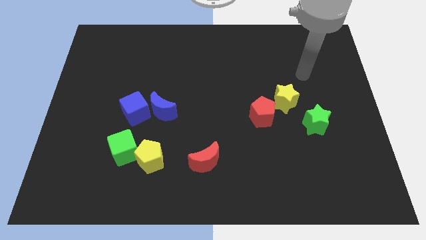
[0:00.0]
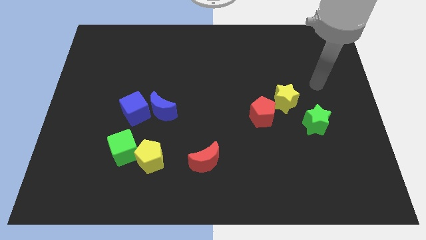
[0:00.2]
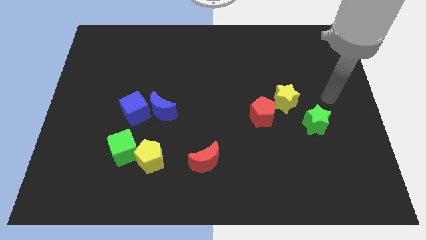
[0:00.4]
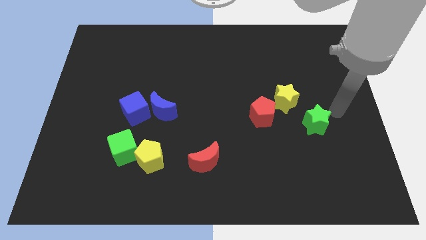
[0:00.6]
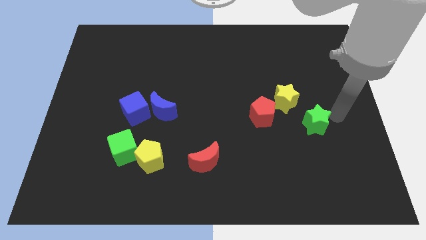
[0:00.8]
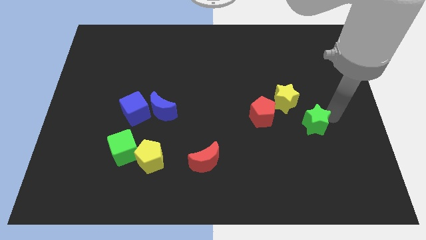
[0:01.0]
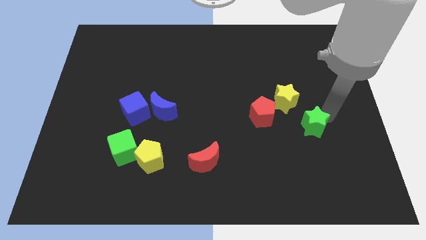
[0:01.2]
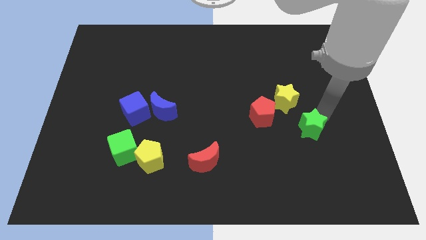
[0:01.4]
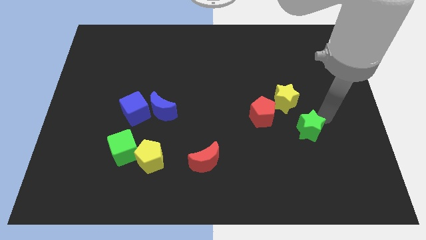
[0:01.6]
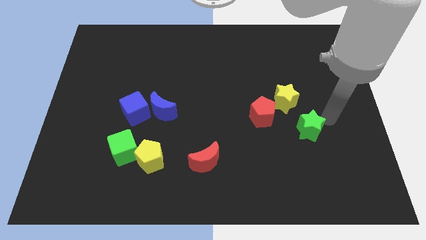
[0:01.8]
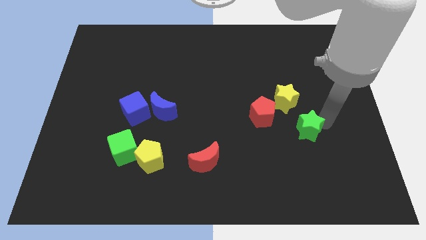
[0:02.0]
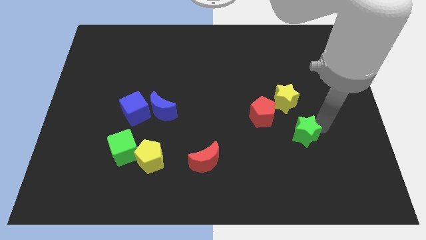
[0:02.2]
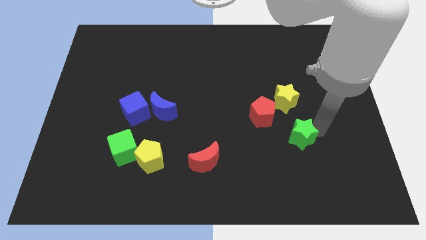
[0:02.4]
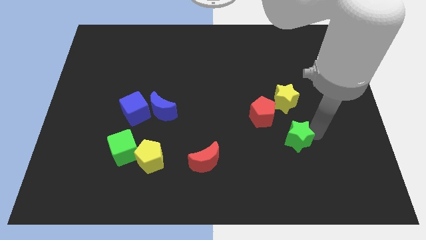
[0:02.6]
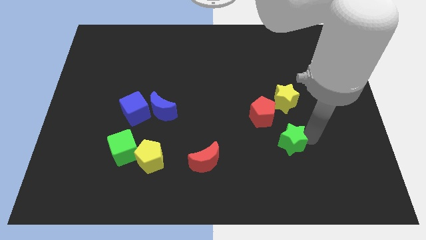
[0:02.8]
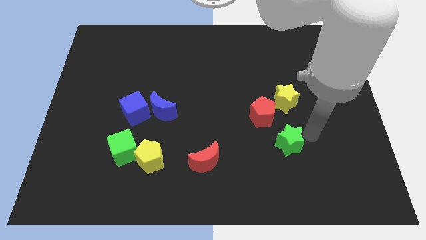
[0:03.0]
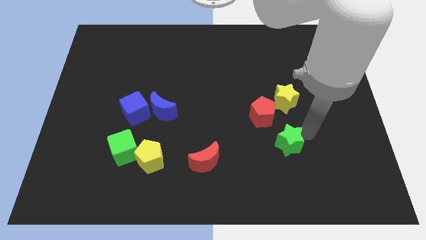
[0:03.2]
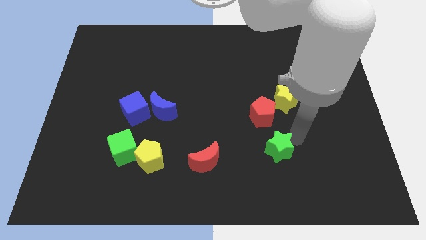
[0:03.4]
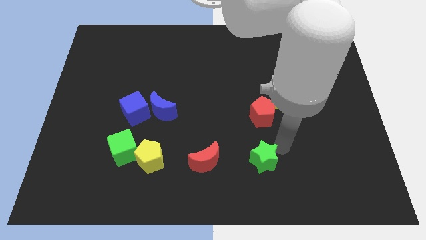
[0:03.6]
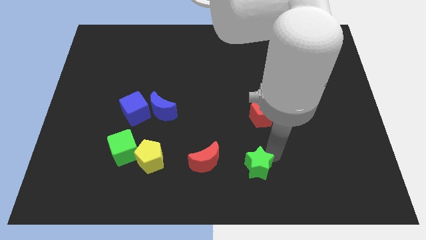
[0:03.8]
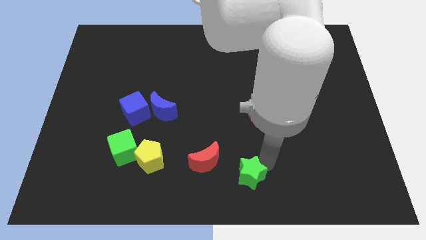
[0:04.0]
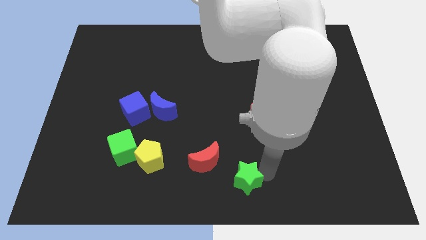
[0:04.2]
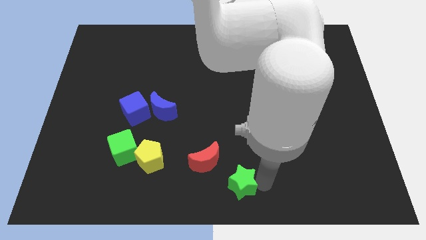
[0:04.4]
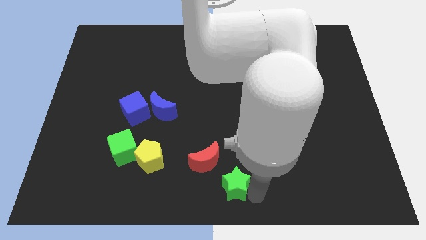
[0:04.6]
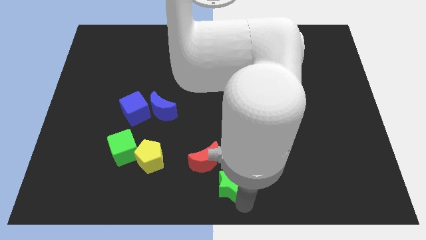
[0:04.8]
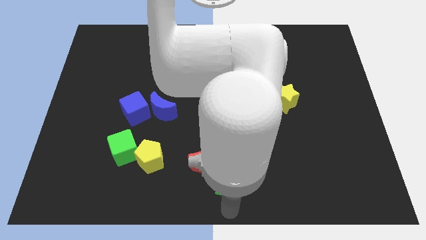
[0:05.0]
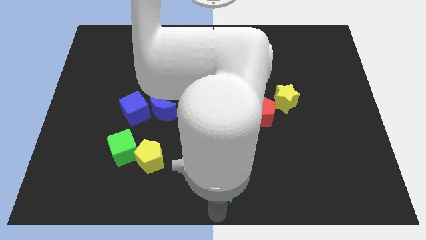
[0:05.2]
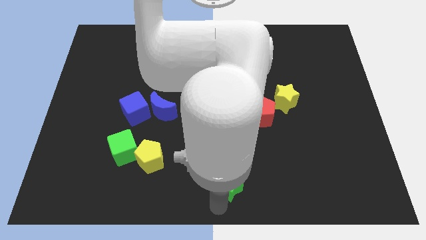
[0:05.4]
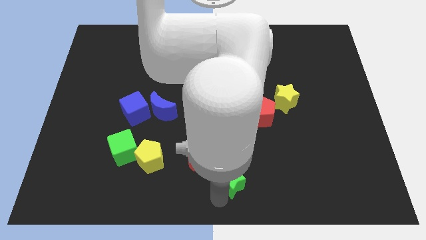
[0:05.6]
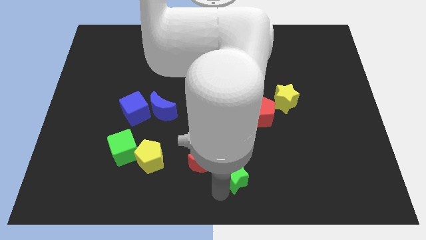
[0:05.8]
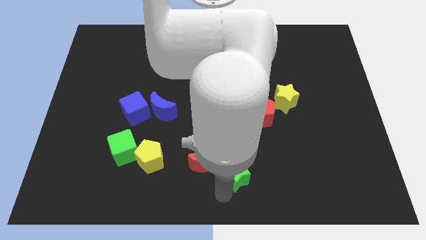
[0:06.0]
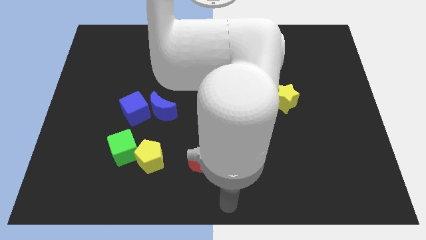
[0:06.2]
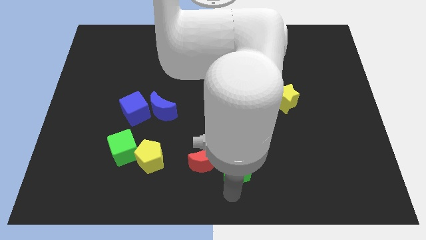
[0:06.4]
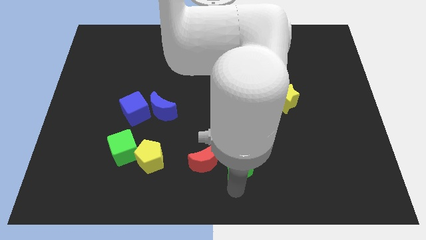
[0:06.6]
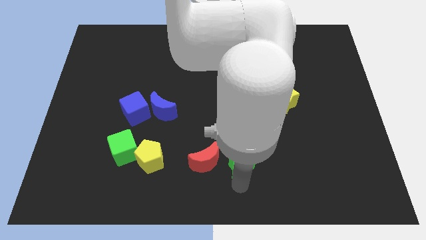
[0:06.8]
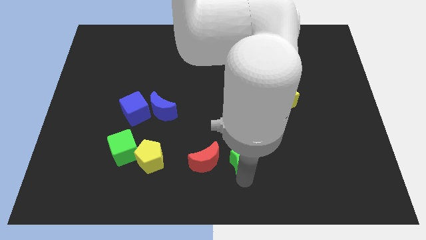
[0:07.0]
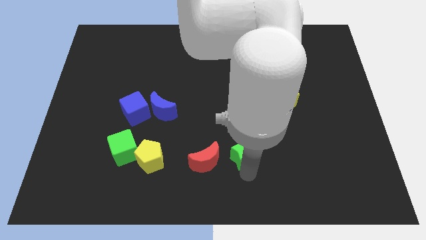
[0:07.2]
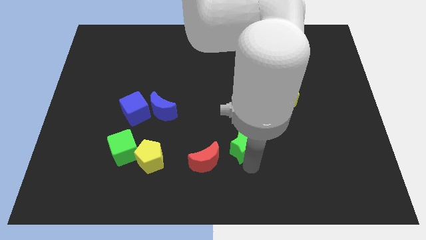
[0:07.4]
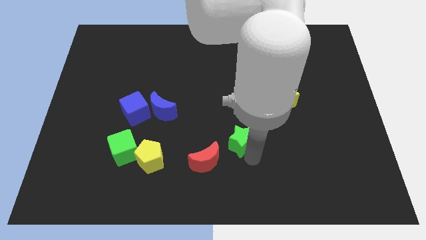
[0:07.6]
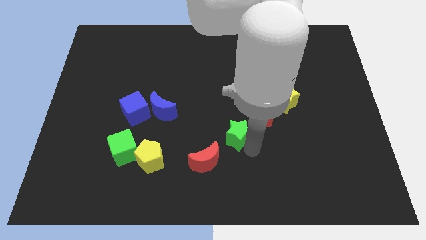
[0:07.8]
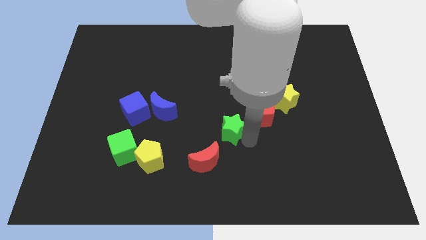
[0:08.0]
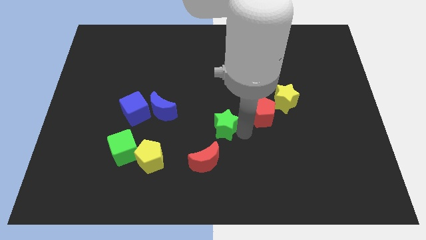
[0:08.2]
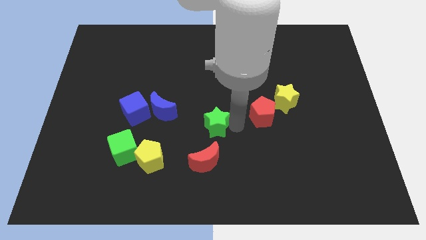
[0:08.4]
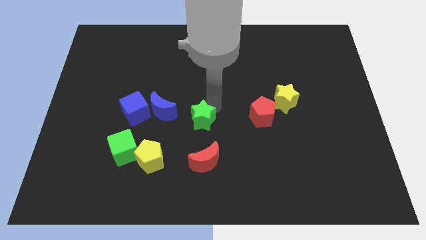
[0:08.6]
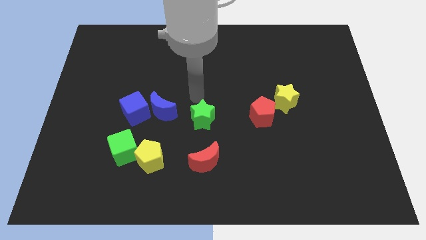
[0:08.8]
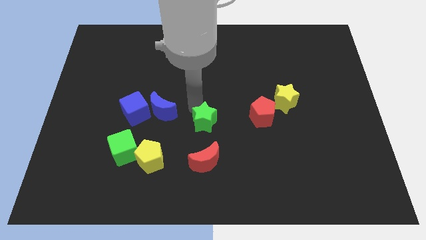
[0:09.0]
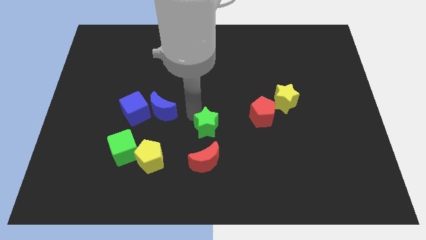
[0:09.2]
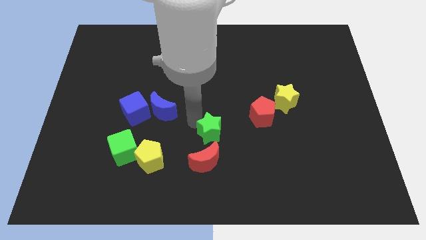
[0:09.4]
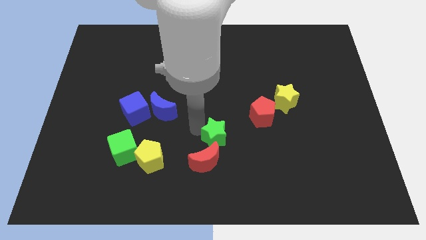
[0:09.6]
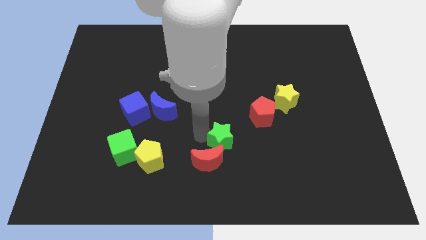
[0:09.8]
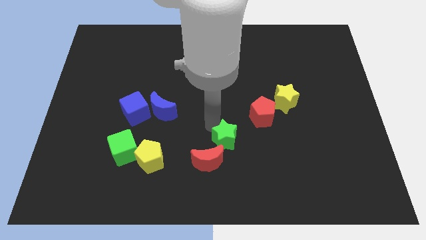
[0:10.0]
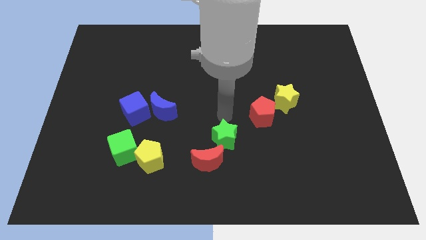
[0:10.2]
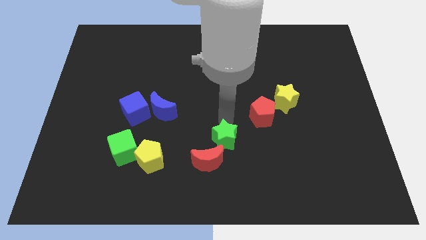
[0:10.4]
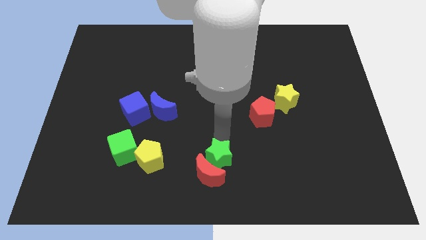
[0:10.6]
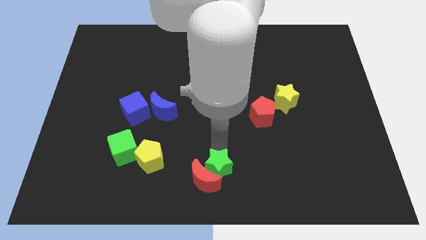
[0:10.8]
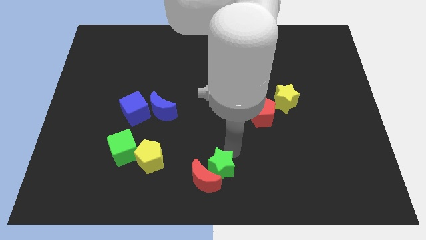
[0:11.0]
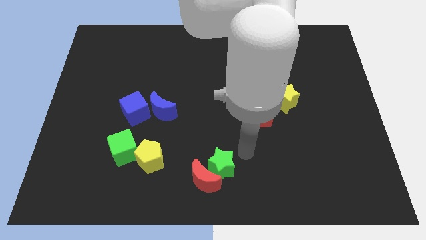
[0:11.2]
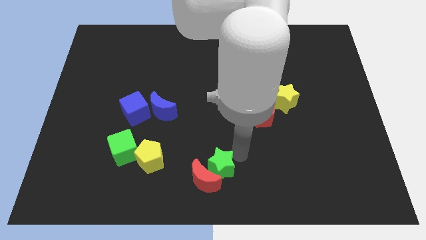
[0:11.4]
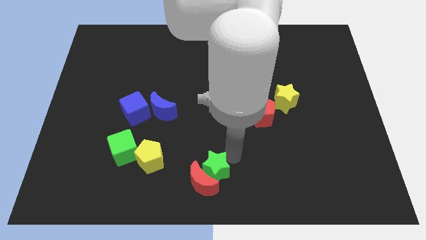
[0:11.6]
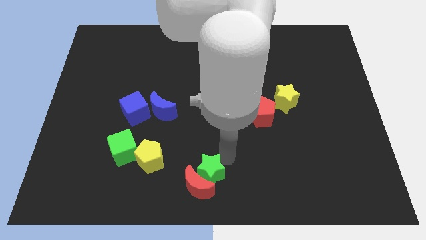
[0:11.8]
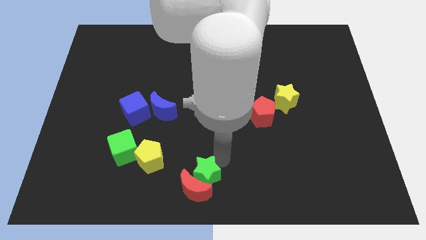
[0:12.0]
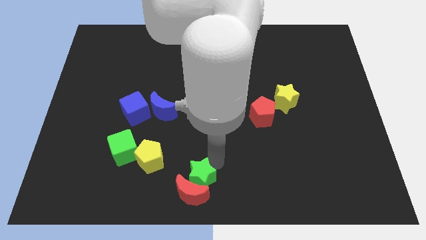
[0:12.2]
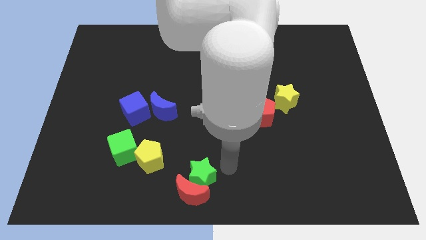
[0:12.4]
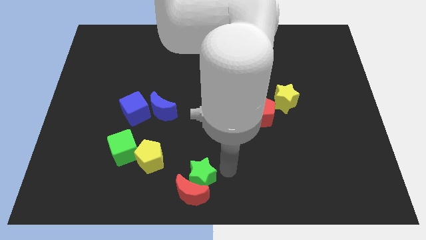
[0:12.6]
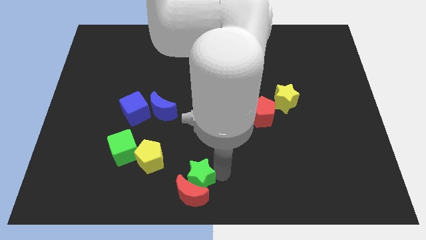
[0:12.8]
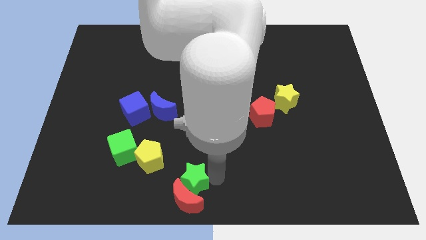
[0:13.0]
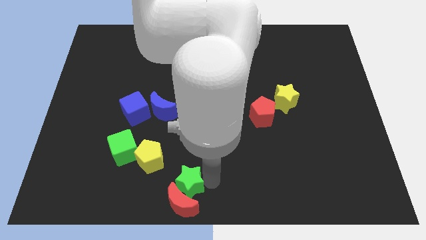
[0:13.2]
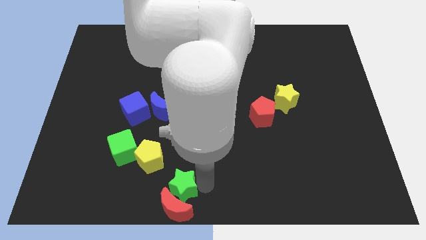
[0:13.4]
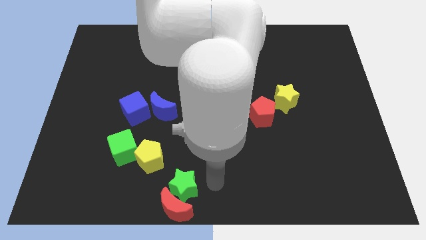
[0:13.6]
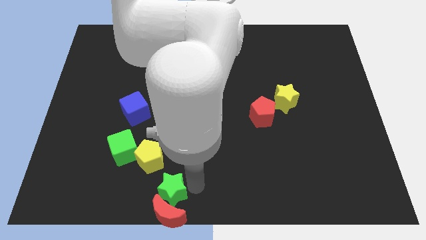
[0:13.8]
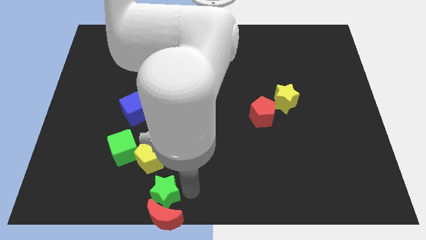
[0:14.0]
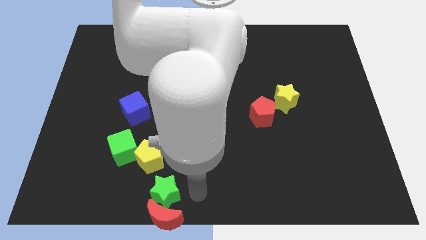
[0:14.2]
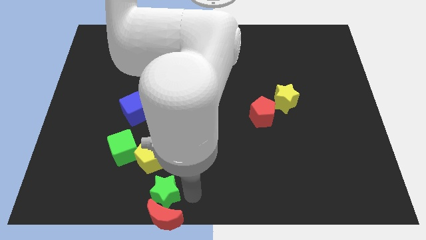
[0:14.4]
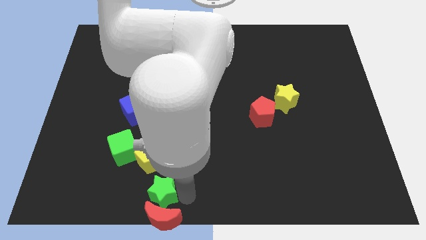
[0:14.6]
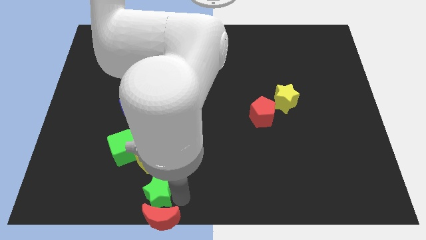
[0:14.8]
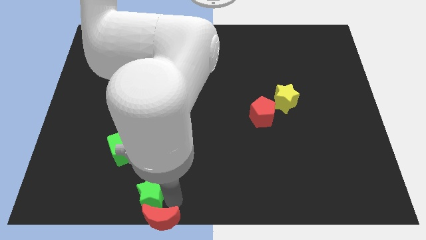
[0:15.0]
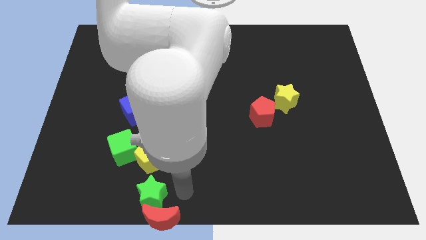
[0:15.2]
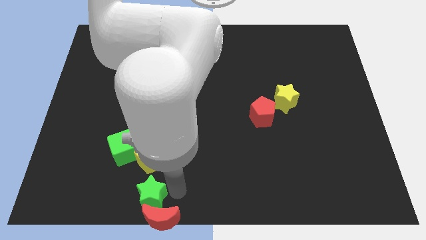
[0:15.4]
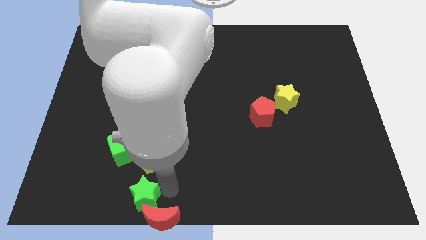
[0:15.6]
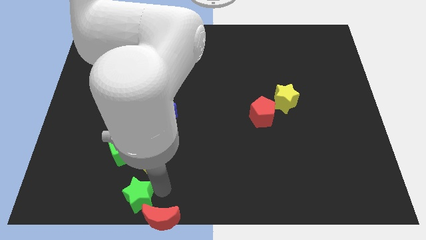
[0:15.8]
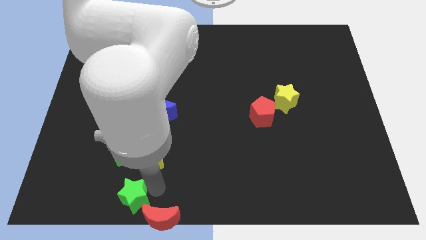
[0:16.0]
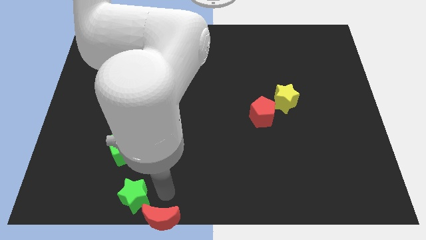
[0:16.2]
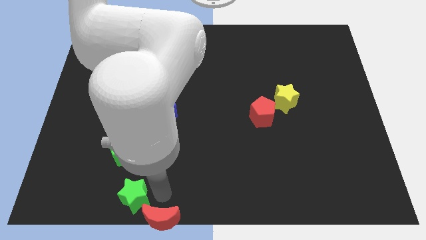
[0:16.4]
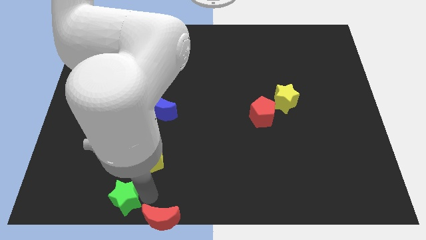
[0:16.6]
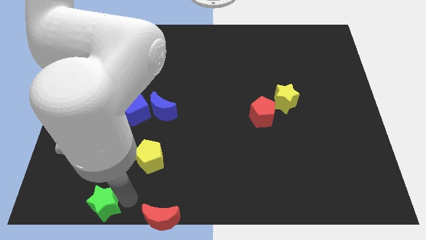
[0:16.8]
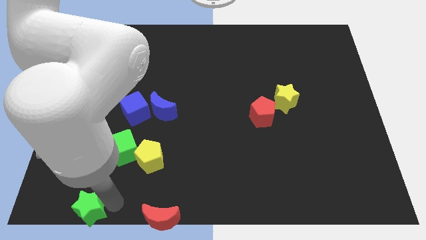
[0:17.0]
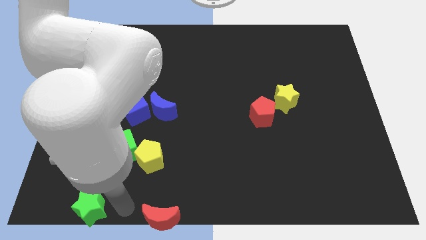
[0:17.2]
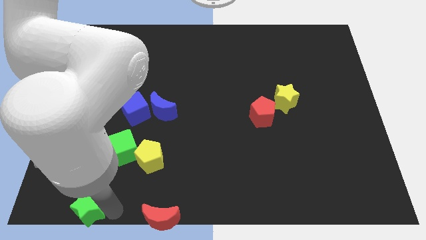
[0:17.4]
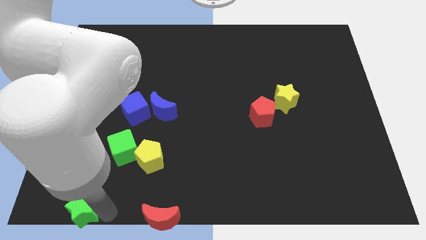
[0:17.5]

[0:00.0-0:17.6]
push the green star to the lower left corner
